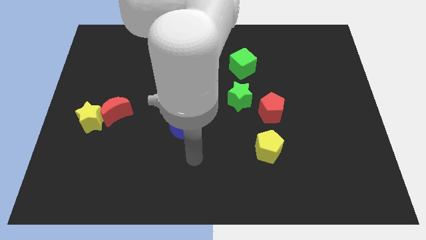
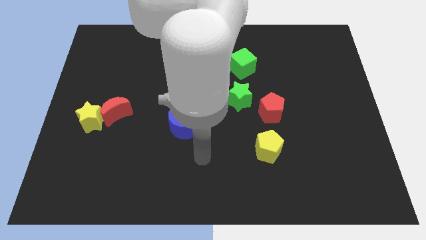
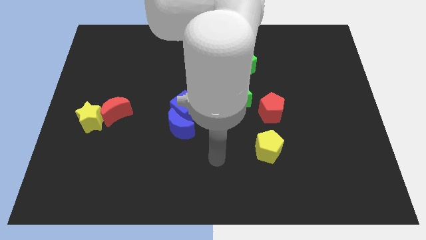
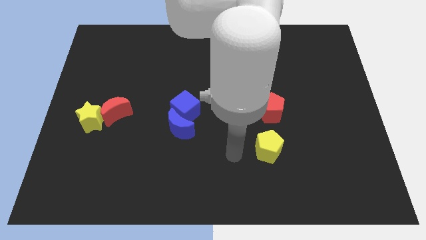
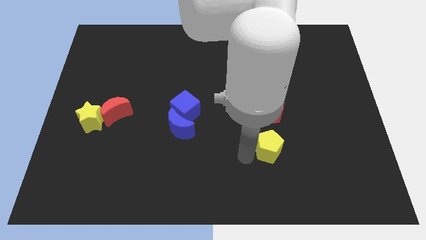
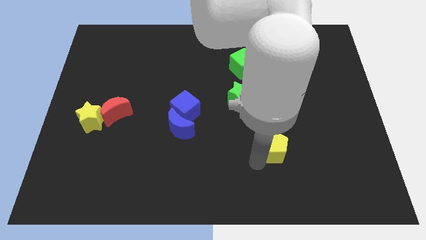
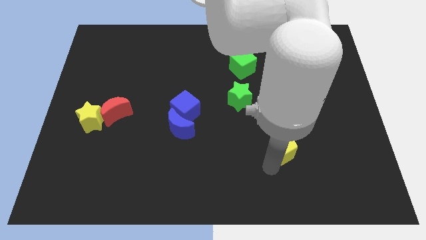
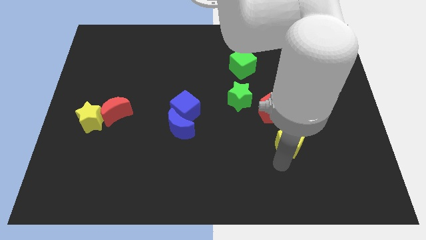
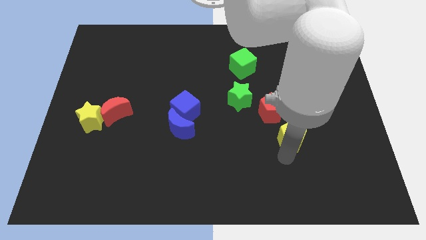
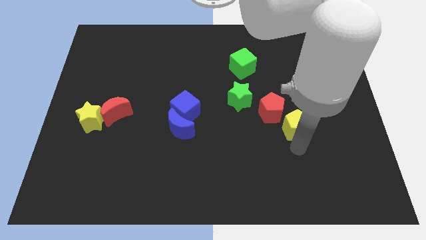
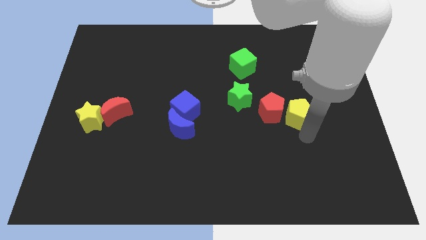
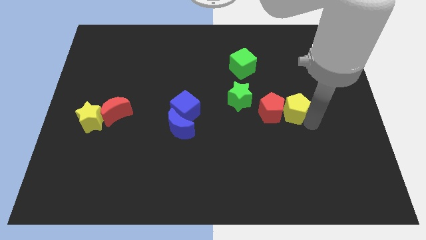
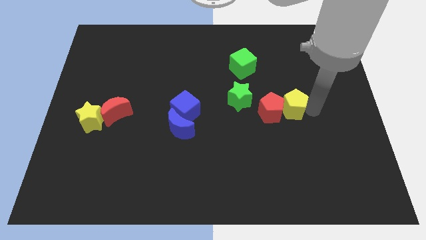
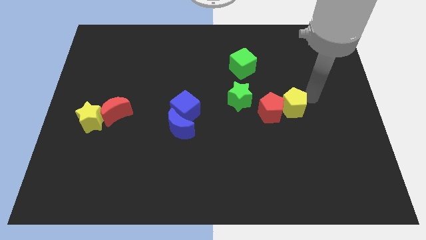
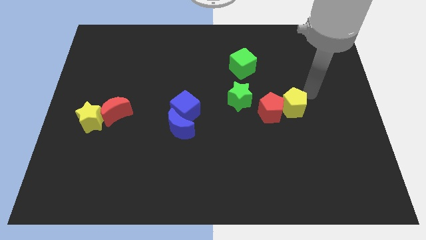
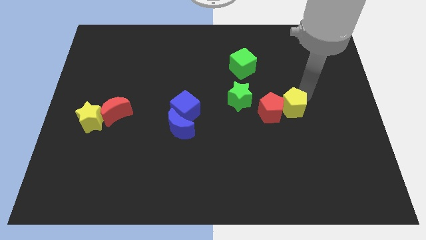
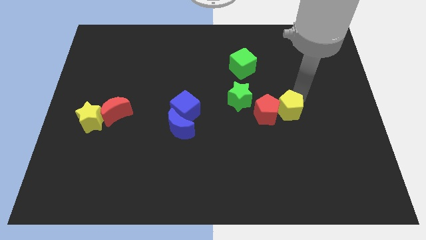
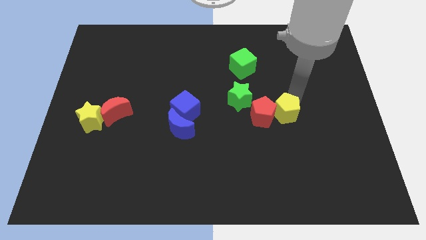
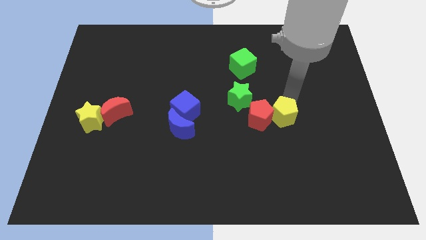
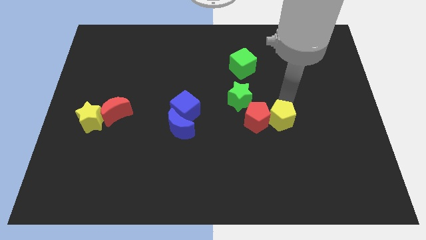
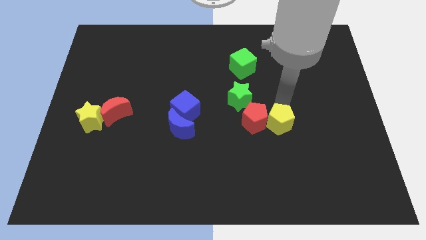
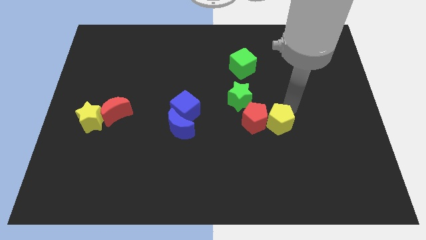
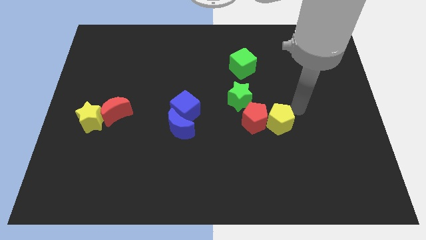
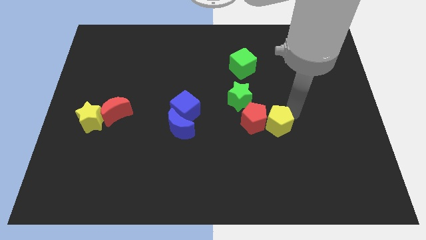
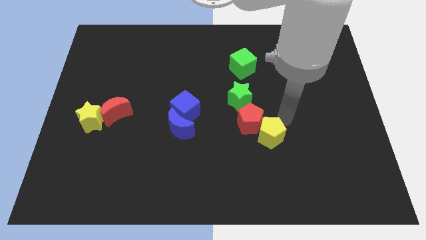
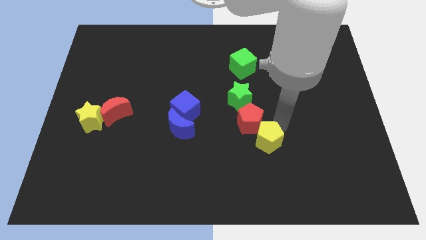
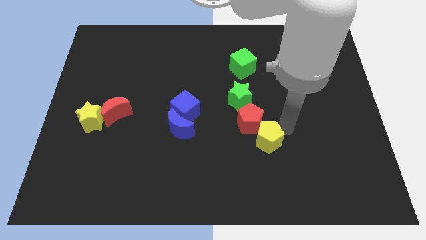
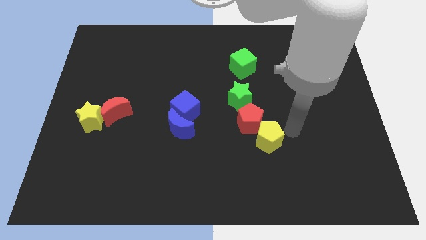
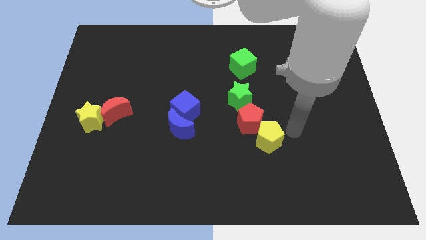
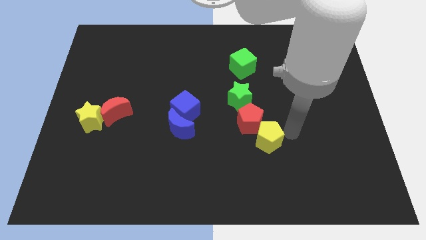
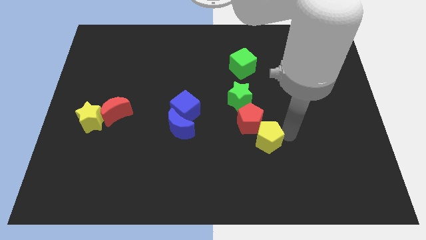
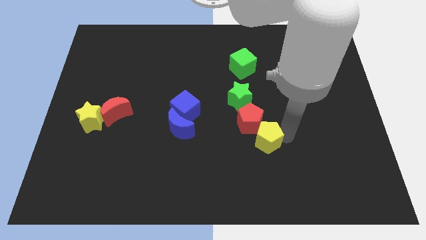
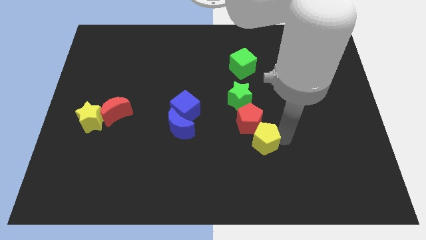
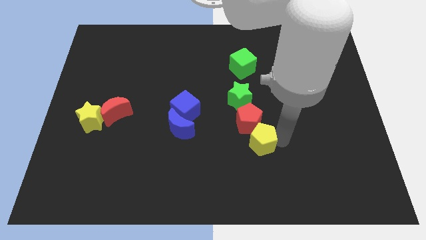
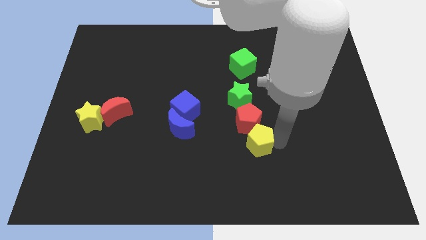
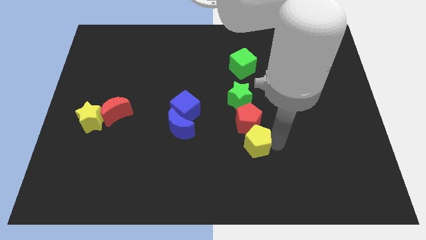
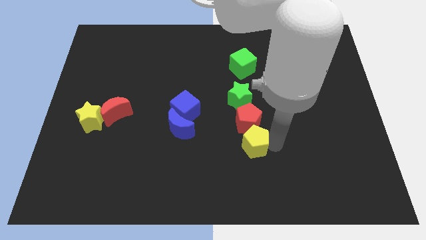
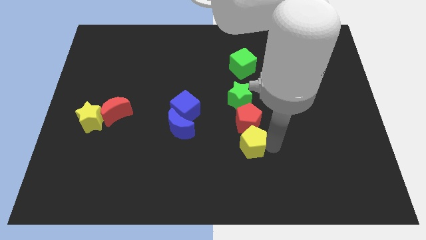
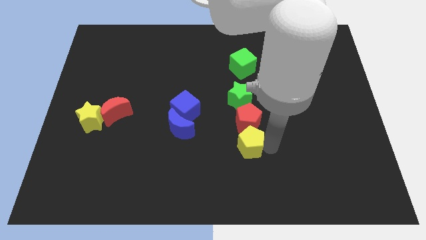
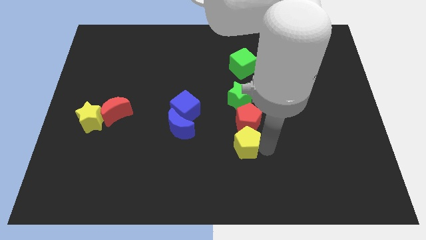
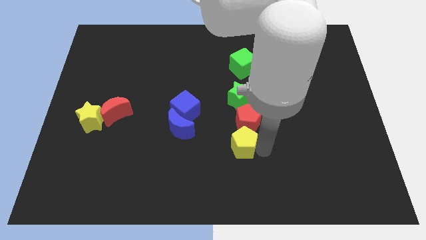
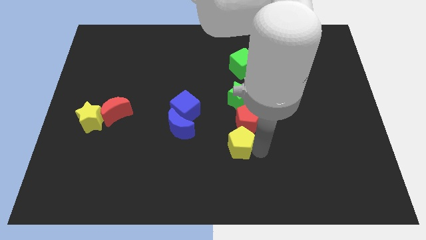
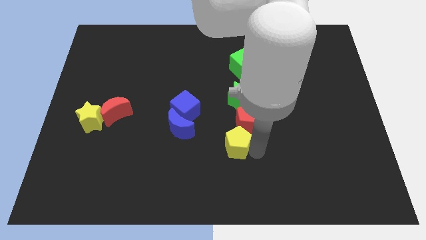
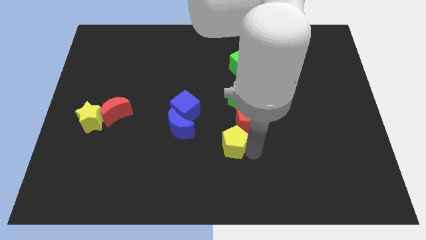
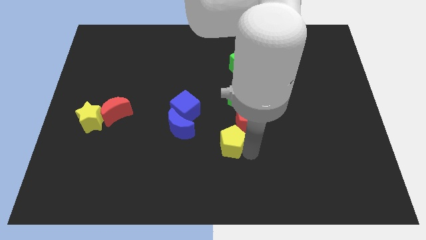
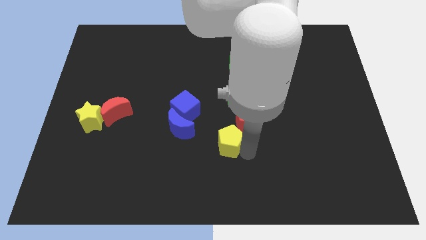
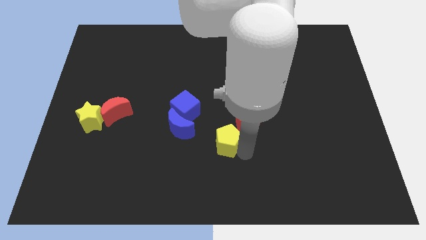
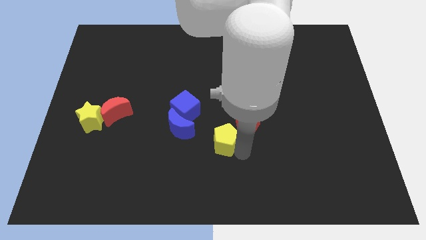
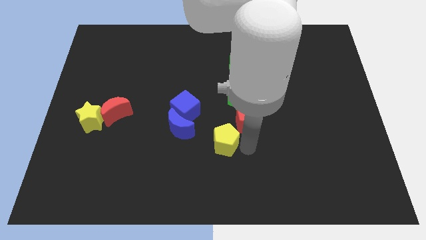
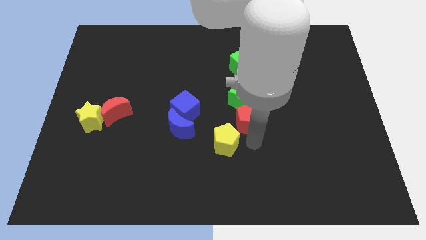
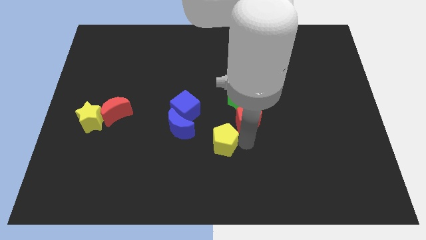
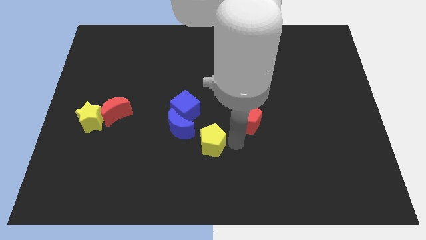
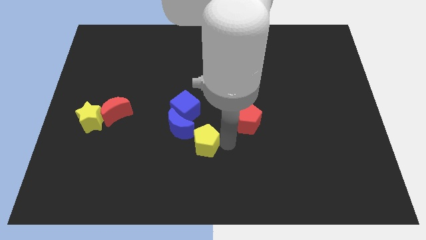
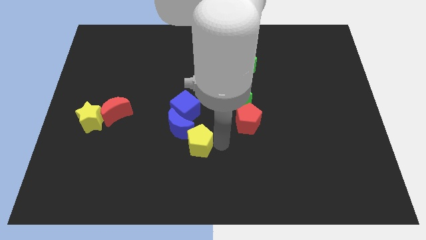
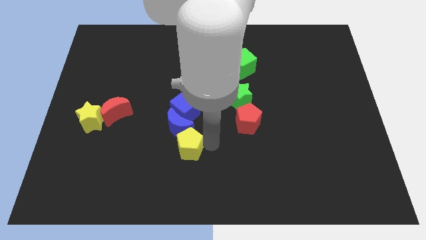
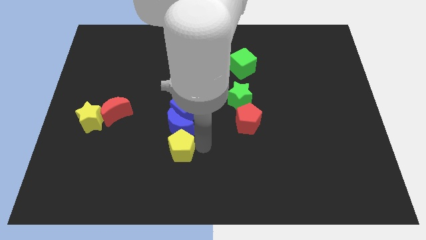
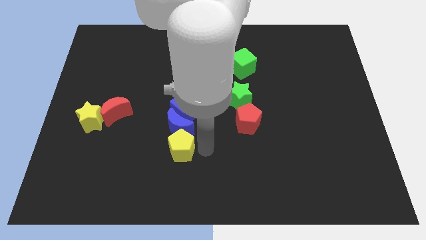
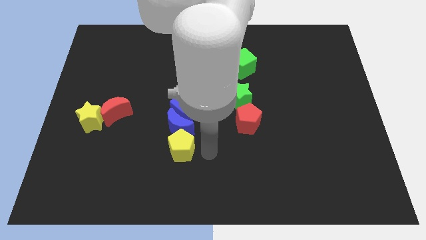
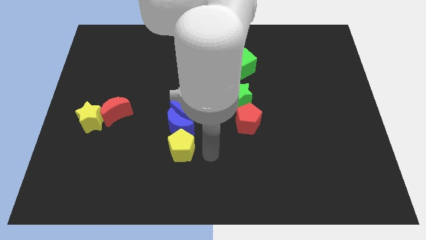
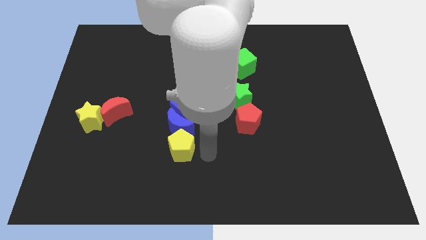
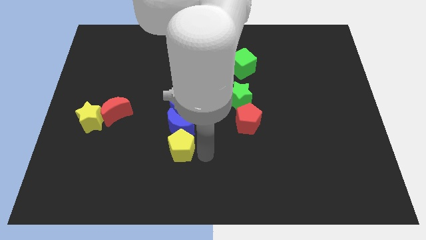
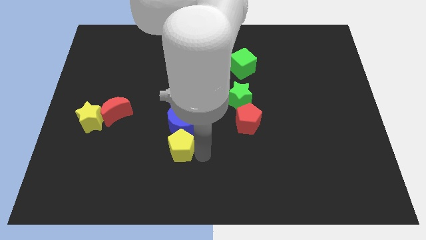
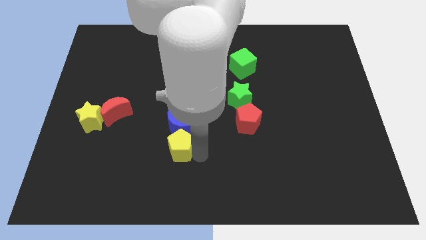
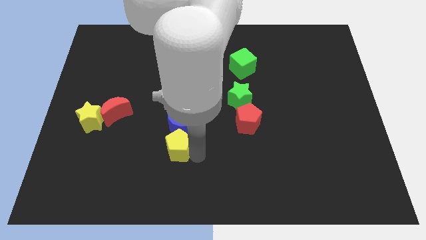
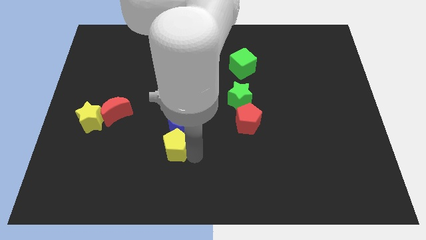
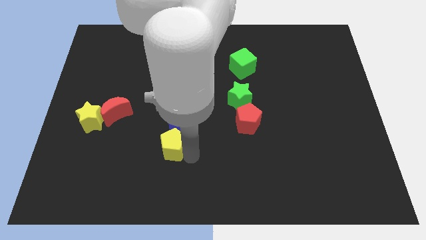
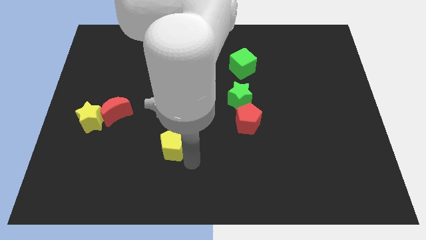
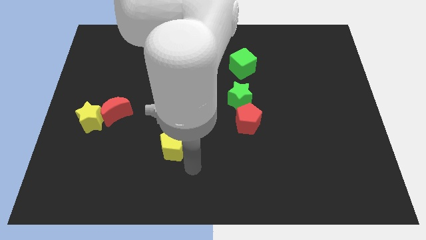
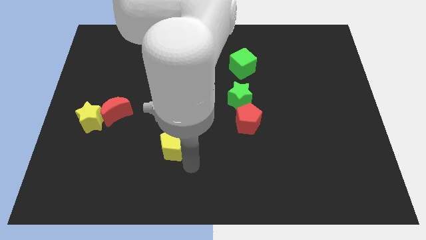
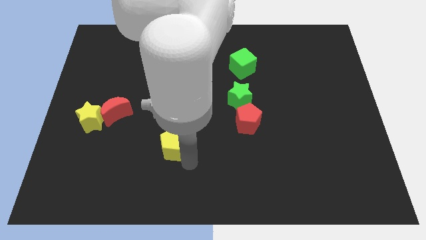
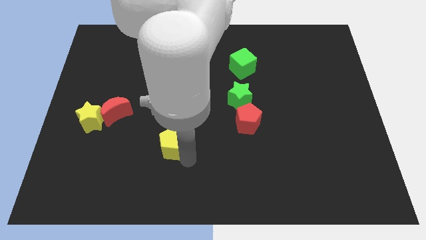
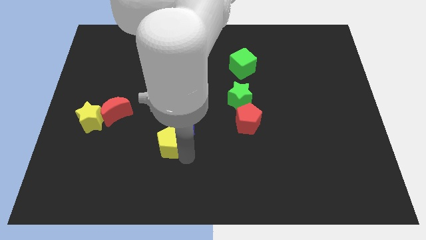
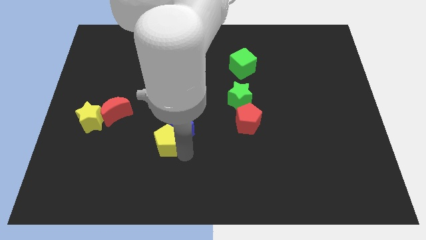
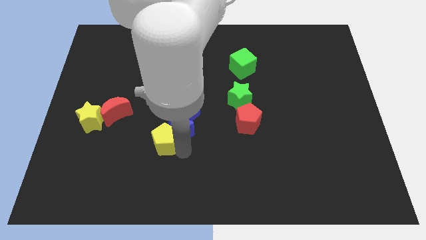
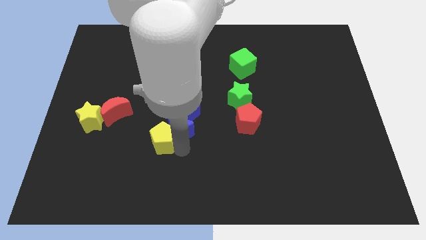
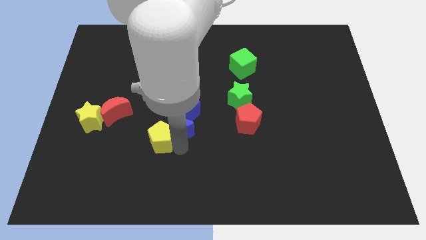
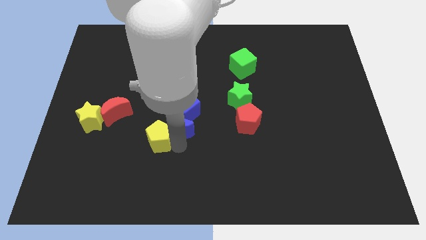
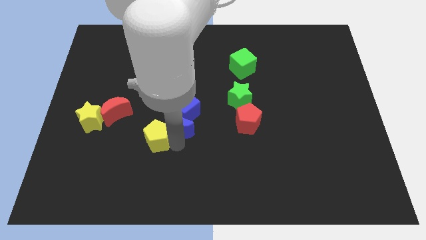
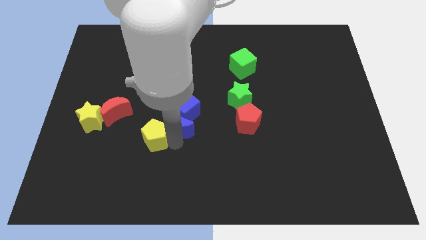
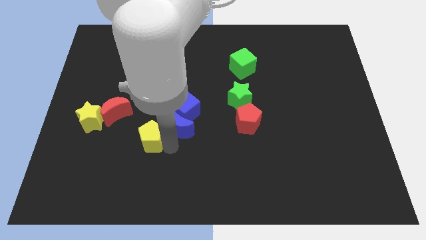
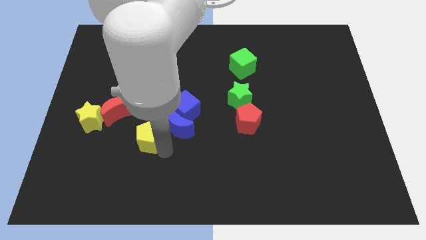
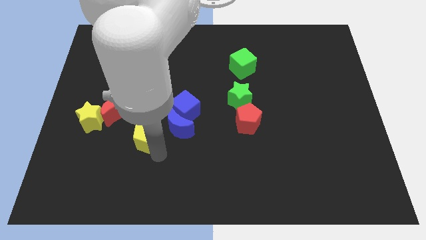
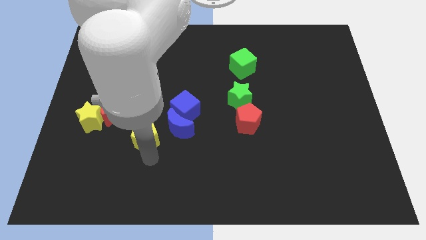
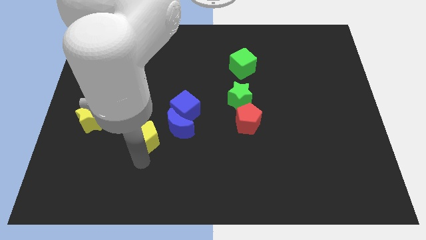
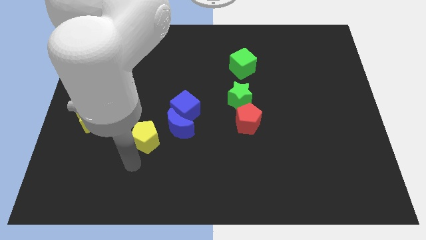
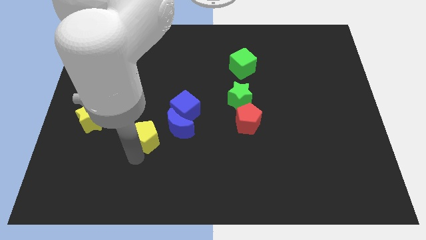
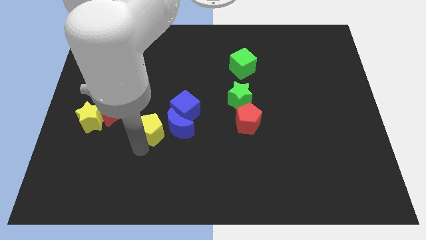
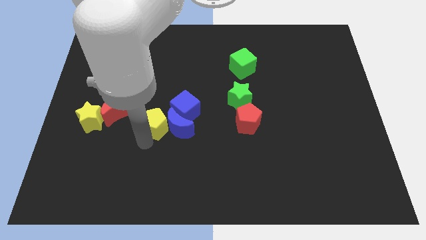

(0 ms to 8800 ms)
slide the yellow pentagon to the right side of the red moon
